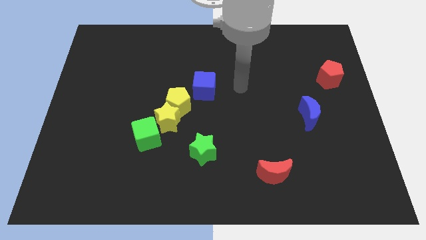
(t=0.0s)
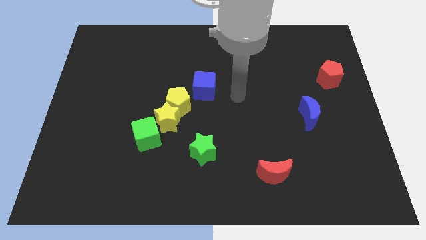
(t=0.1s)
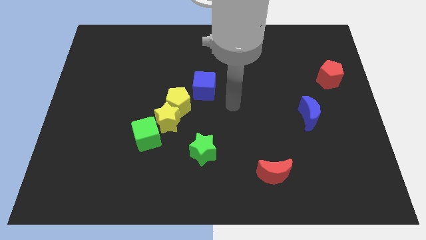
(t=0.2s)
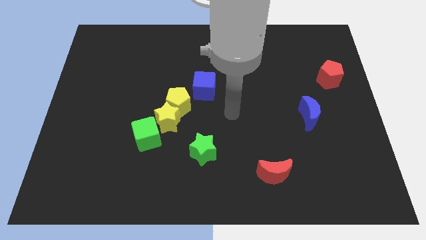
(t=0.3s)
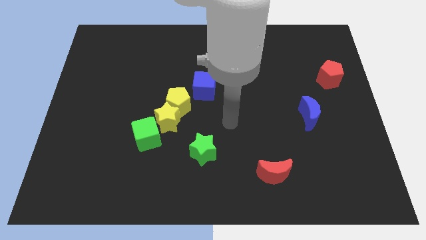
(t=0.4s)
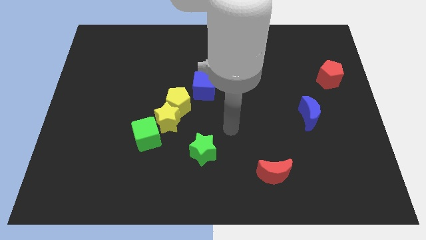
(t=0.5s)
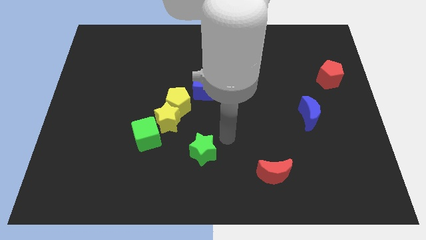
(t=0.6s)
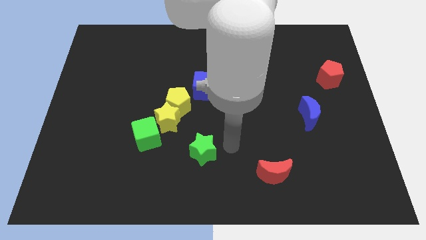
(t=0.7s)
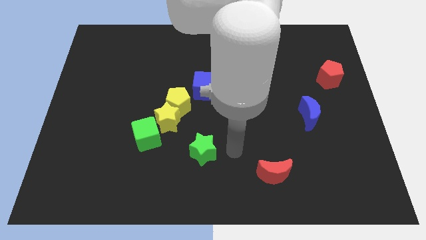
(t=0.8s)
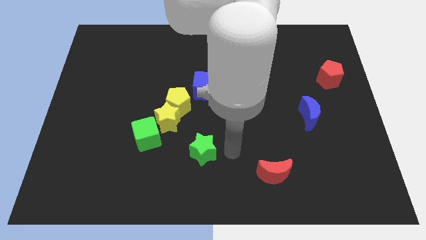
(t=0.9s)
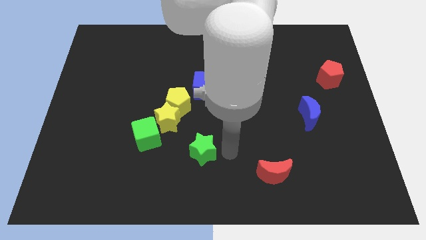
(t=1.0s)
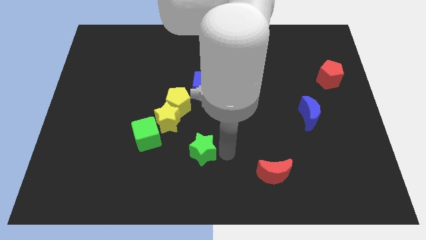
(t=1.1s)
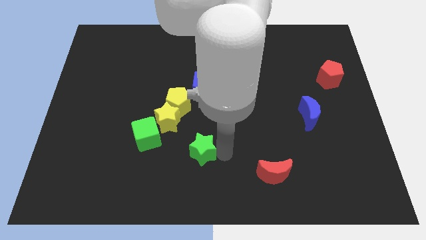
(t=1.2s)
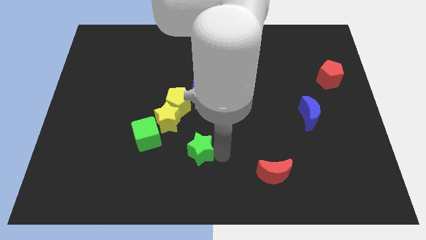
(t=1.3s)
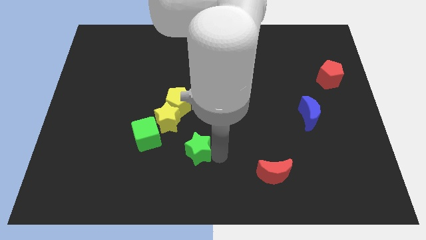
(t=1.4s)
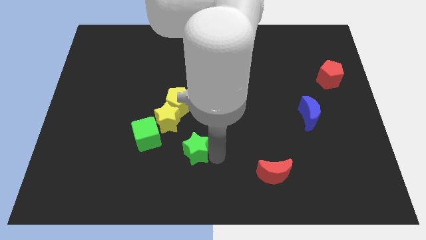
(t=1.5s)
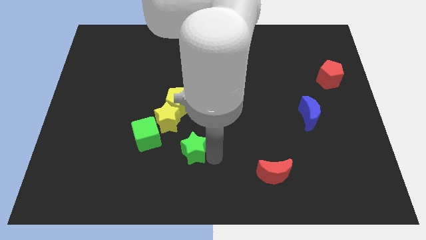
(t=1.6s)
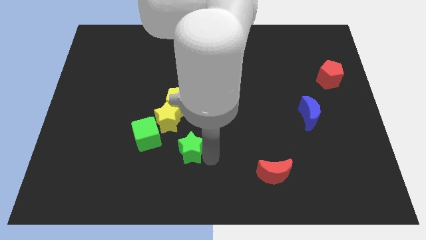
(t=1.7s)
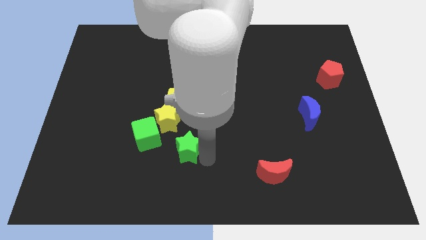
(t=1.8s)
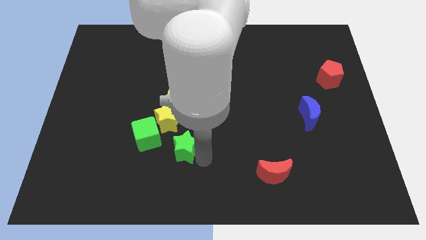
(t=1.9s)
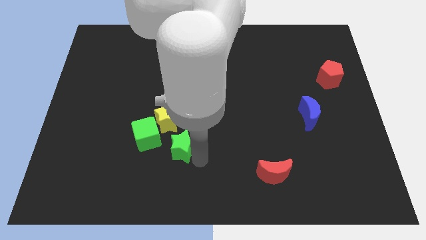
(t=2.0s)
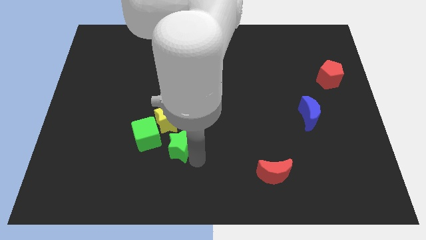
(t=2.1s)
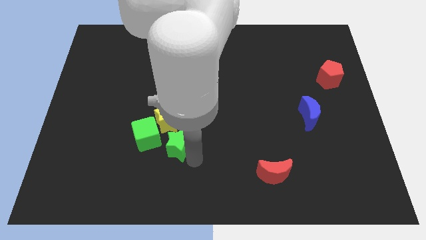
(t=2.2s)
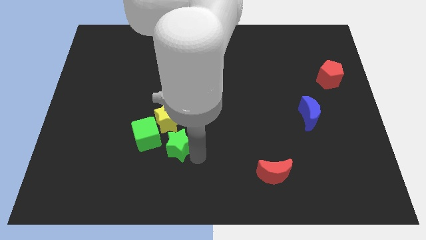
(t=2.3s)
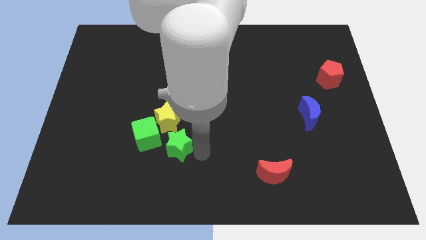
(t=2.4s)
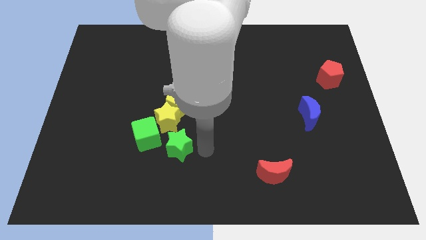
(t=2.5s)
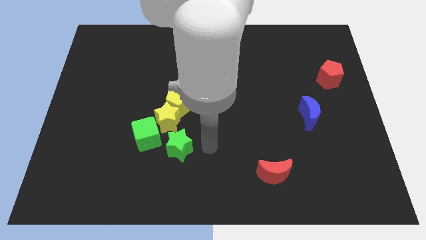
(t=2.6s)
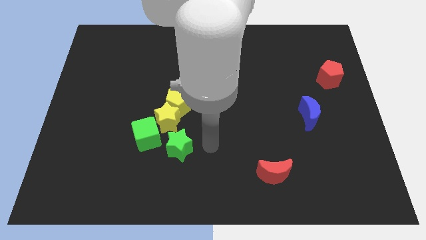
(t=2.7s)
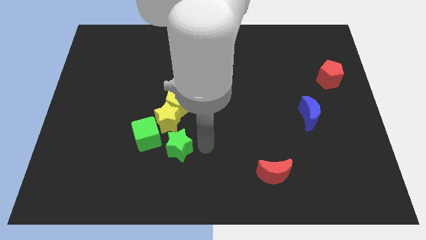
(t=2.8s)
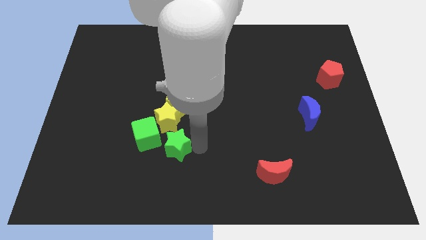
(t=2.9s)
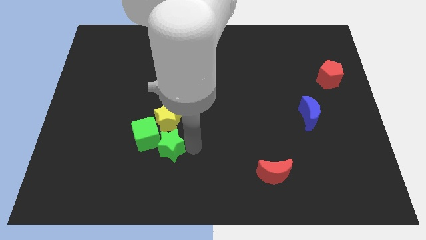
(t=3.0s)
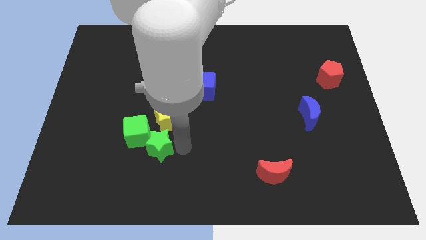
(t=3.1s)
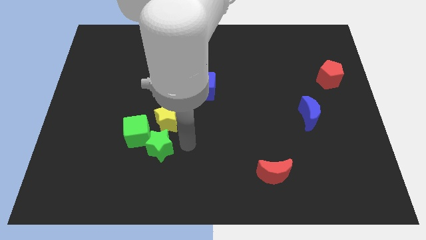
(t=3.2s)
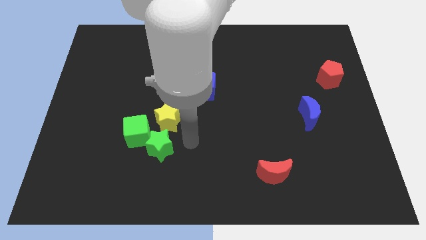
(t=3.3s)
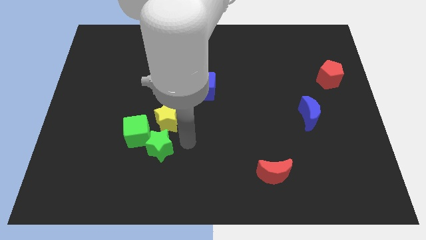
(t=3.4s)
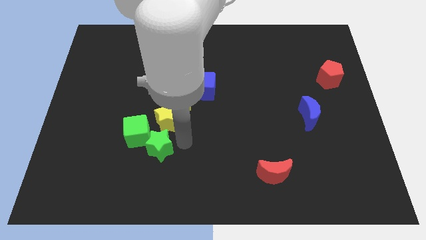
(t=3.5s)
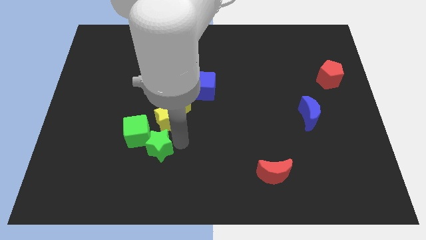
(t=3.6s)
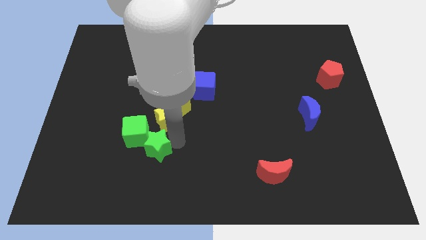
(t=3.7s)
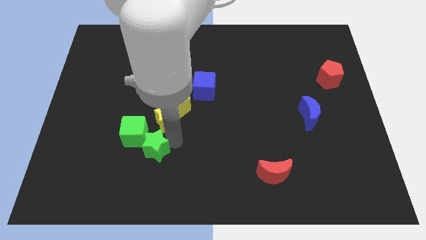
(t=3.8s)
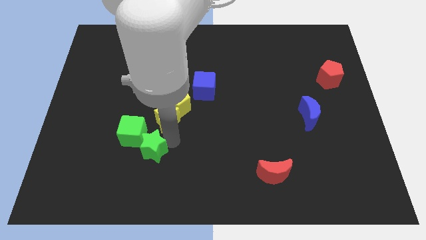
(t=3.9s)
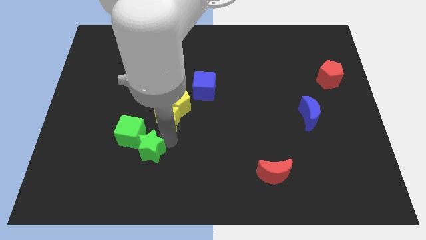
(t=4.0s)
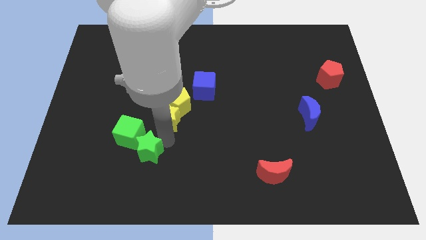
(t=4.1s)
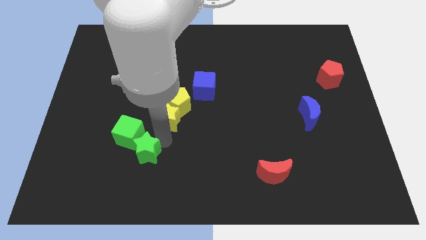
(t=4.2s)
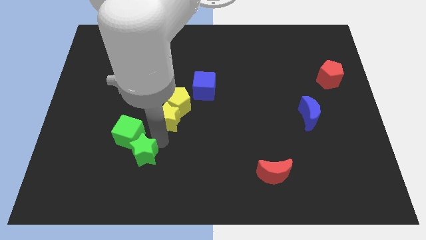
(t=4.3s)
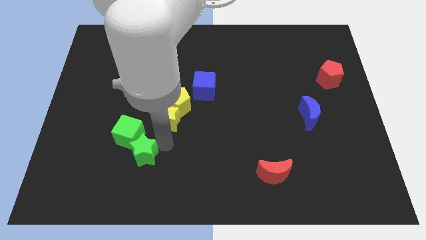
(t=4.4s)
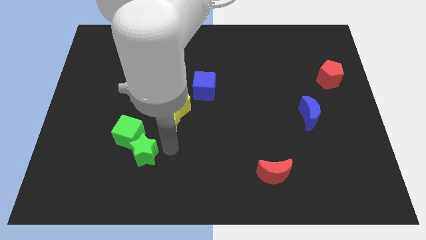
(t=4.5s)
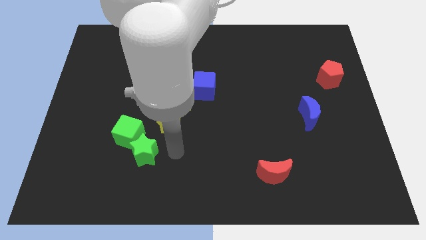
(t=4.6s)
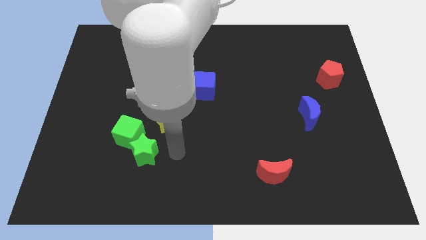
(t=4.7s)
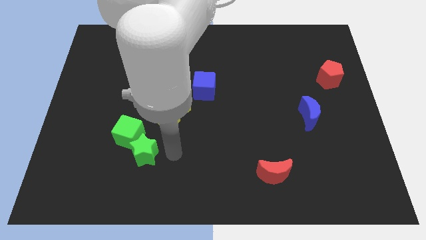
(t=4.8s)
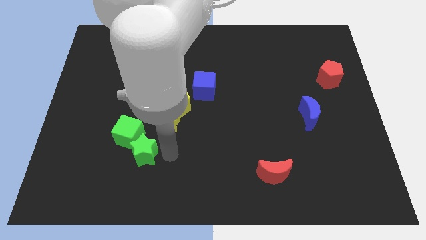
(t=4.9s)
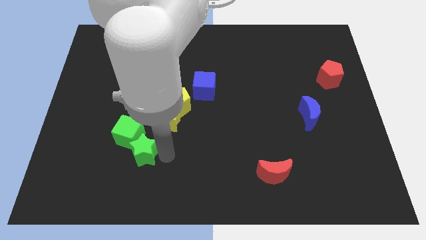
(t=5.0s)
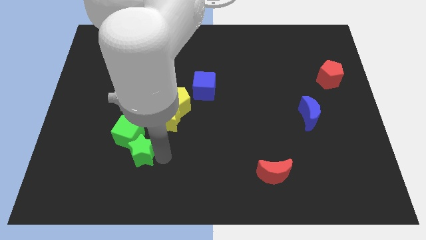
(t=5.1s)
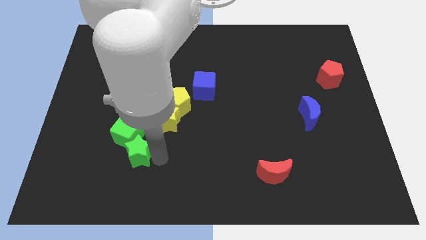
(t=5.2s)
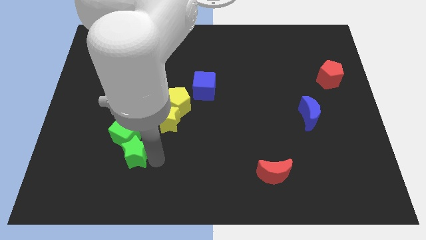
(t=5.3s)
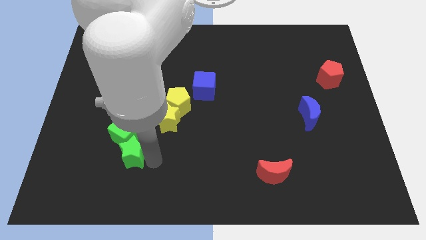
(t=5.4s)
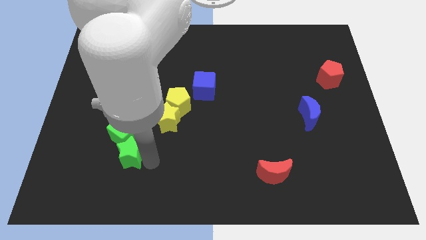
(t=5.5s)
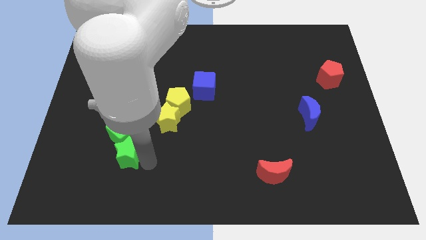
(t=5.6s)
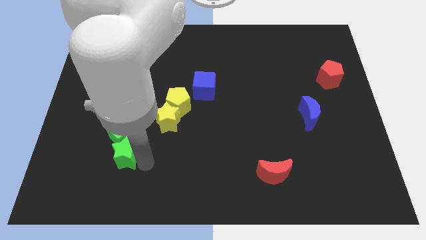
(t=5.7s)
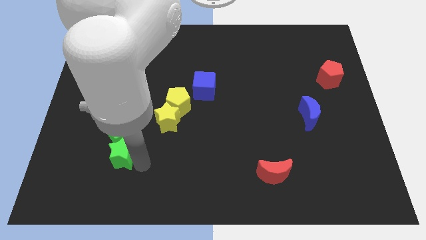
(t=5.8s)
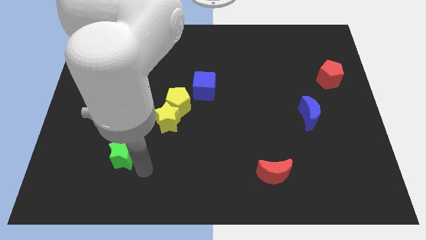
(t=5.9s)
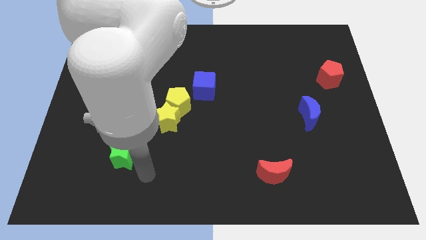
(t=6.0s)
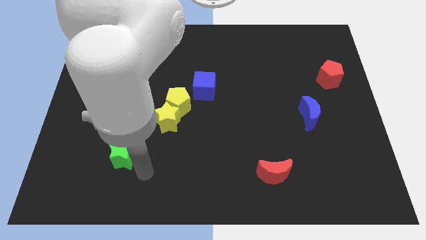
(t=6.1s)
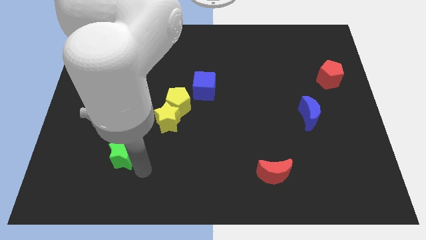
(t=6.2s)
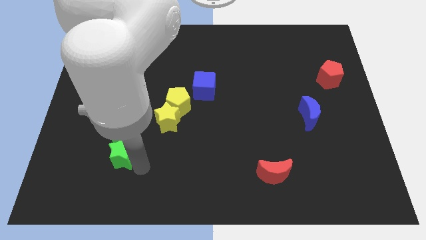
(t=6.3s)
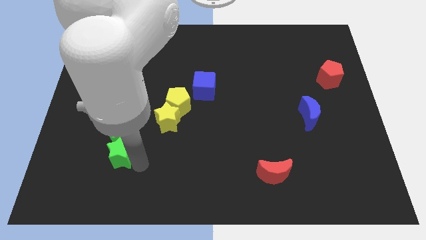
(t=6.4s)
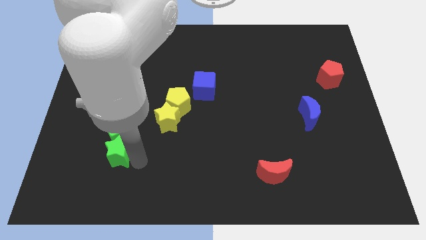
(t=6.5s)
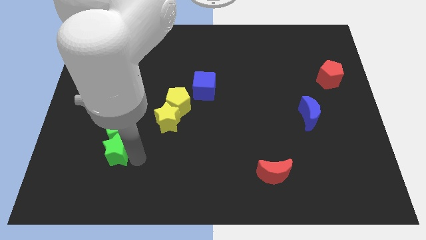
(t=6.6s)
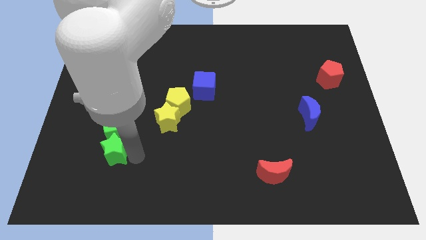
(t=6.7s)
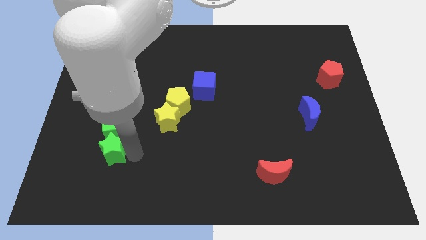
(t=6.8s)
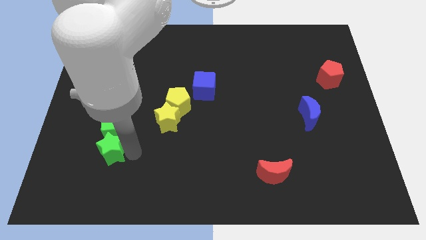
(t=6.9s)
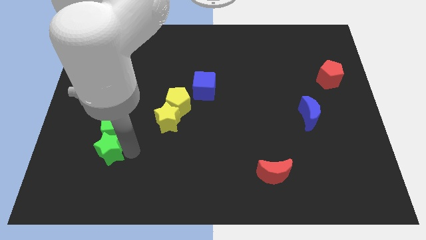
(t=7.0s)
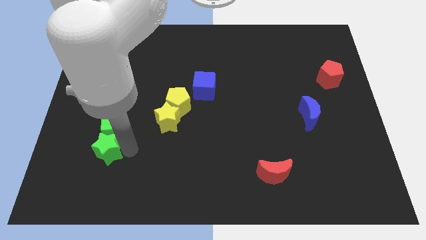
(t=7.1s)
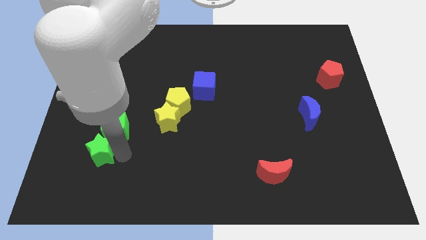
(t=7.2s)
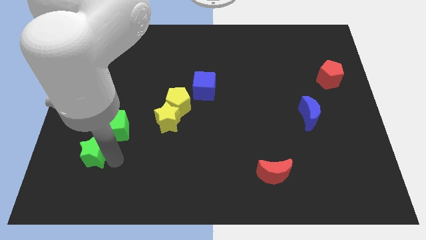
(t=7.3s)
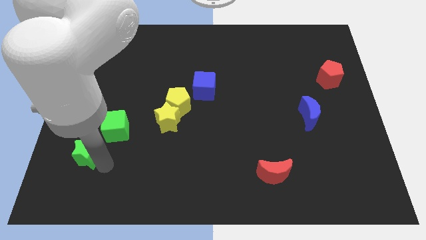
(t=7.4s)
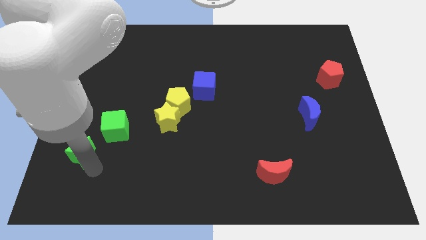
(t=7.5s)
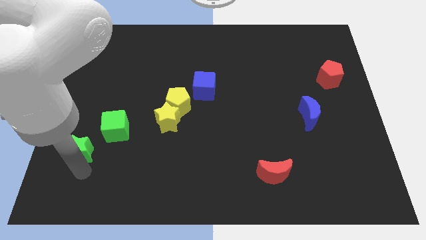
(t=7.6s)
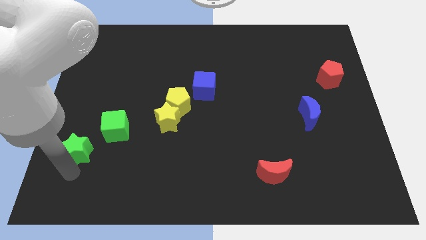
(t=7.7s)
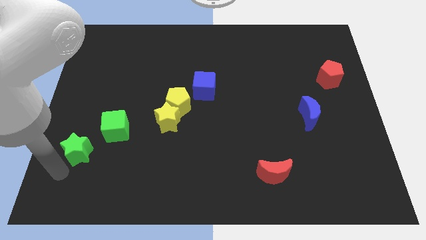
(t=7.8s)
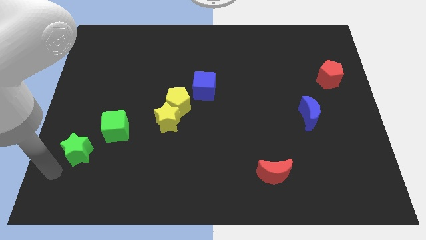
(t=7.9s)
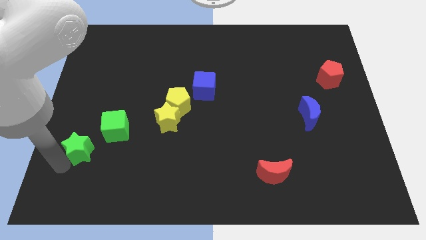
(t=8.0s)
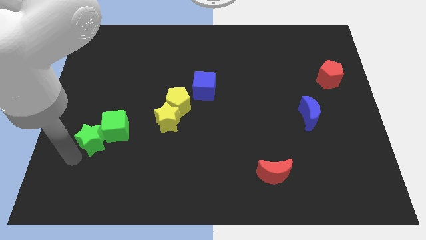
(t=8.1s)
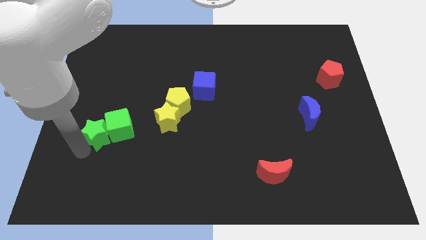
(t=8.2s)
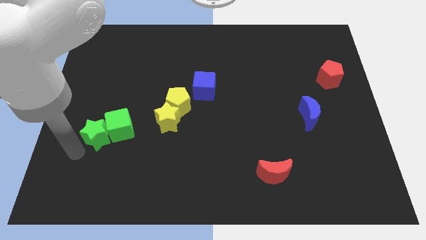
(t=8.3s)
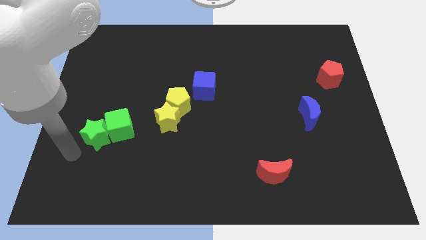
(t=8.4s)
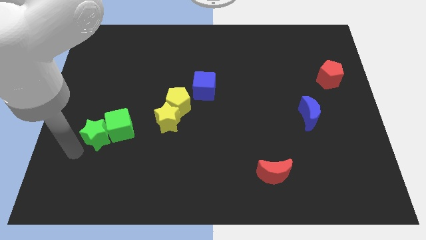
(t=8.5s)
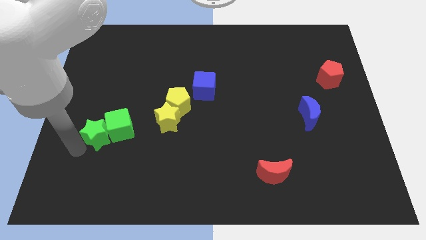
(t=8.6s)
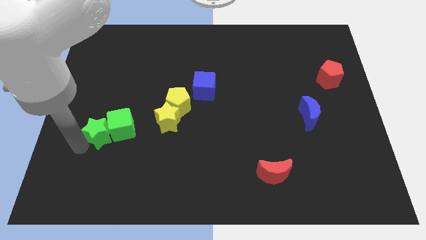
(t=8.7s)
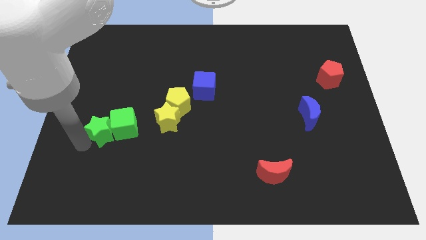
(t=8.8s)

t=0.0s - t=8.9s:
push the green star slightly upwards and to the left diagonally
